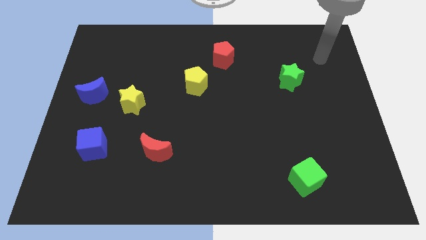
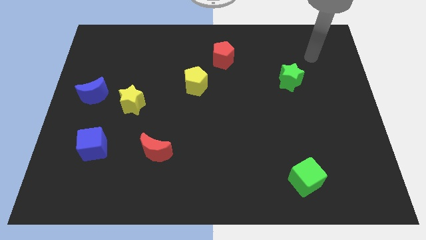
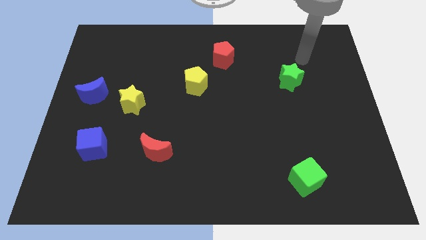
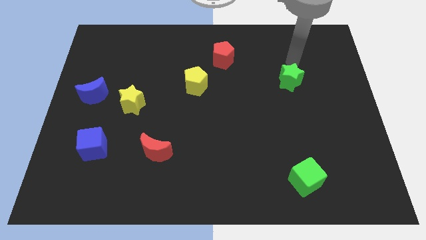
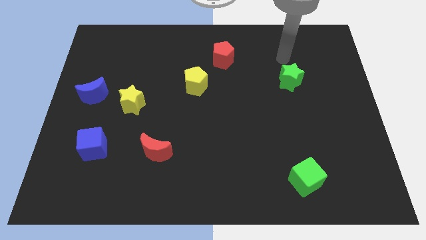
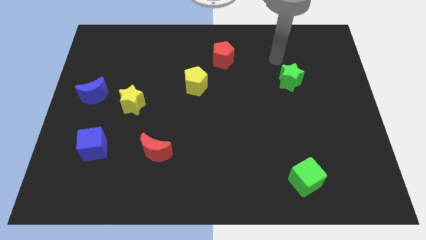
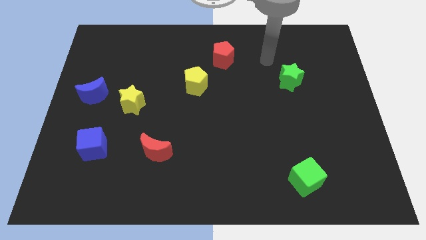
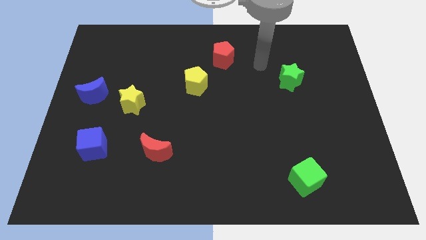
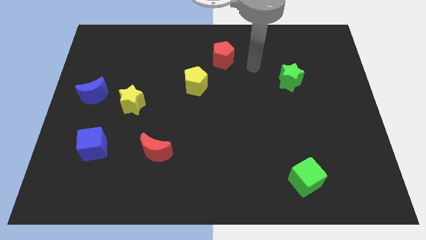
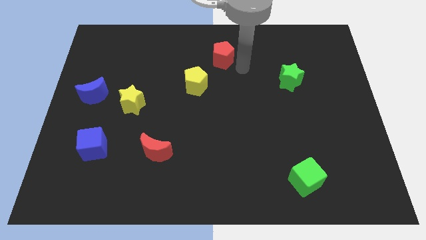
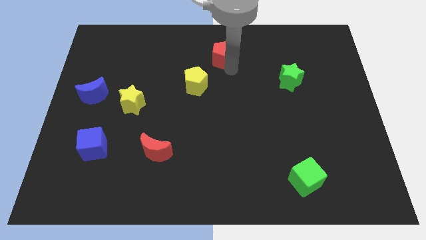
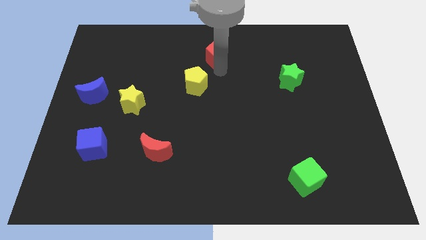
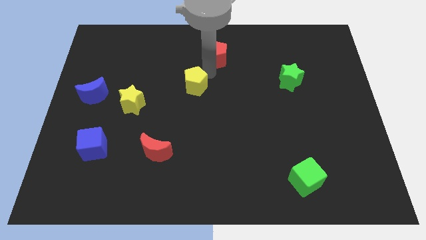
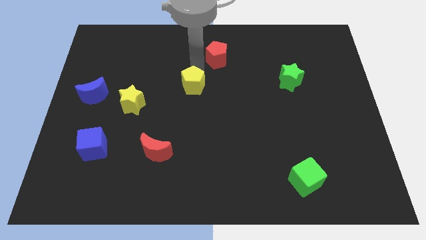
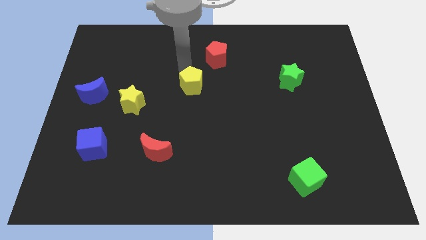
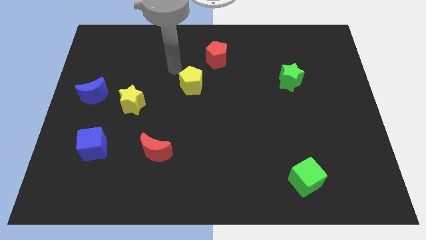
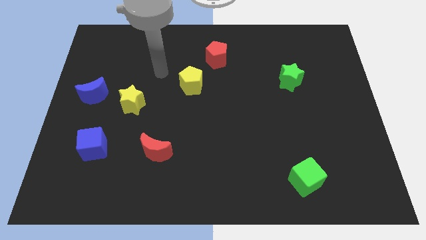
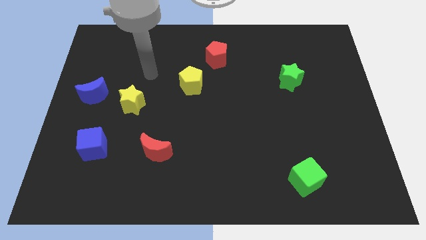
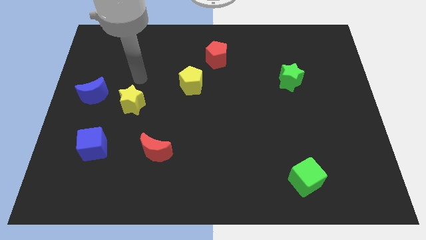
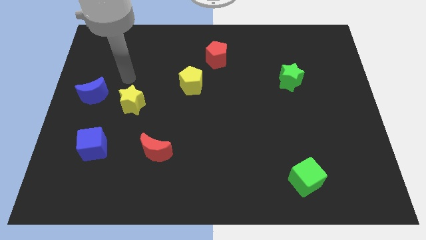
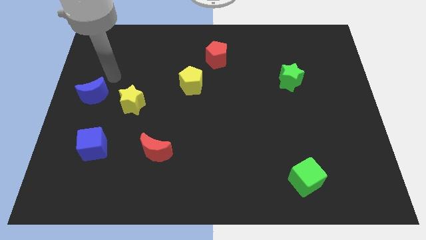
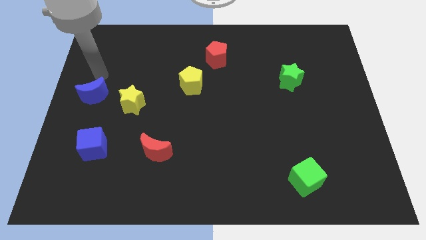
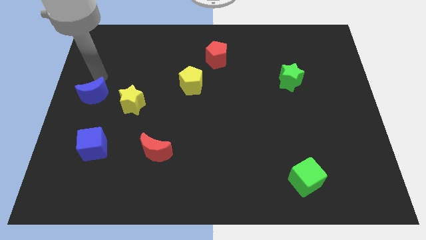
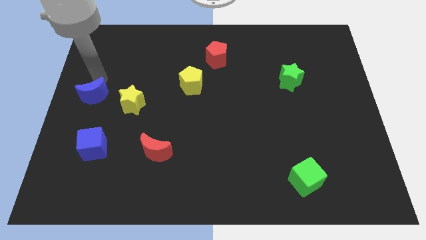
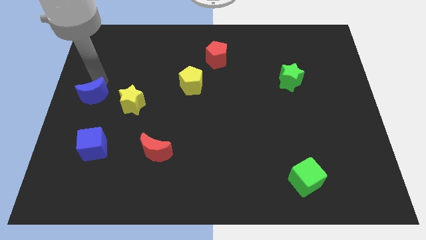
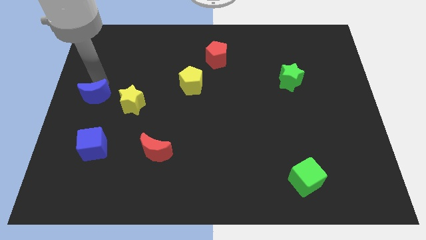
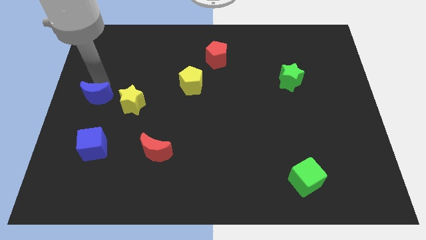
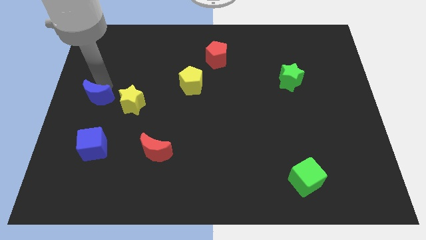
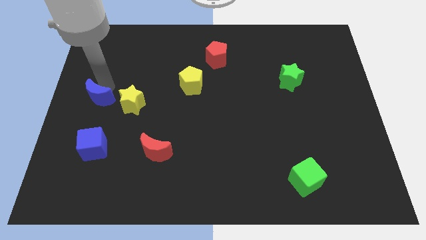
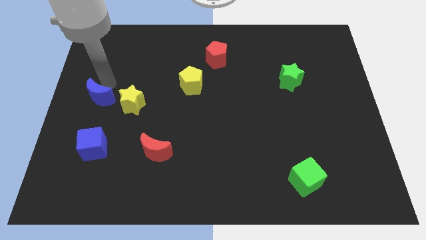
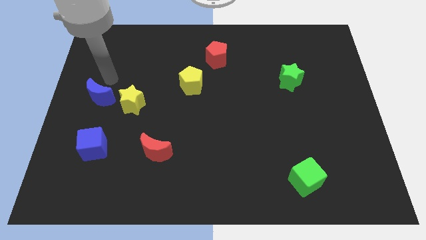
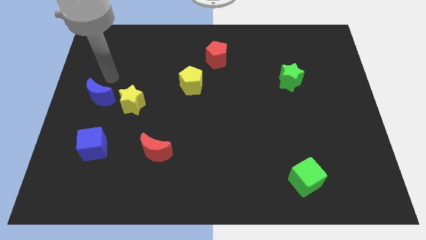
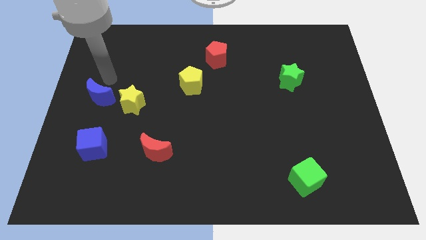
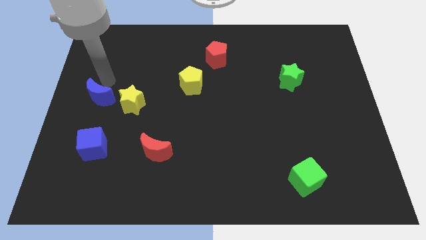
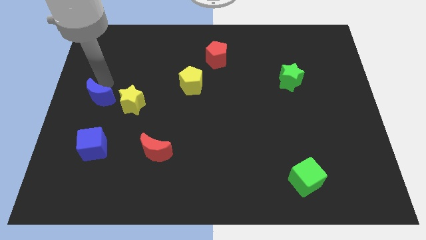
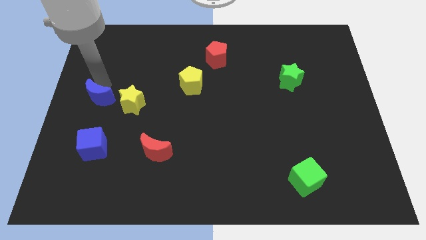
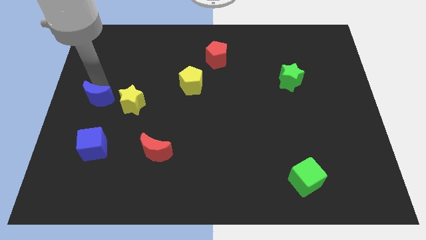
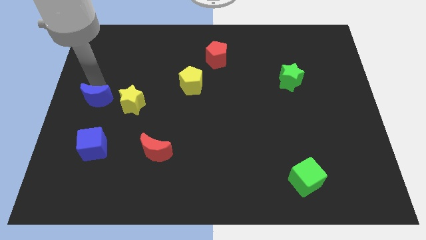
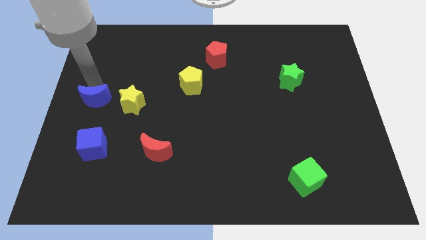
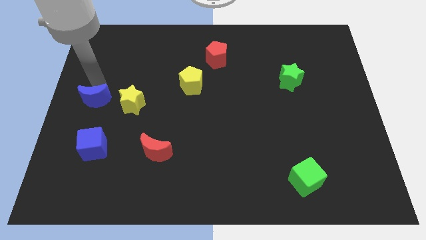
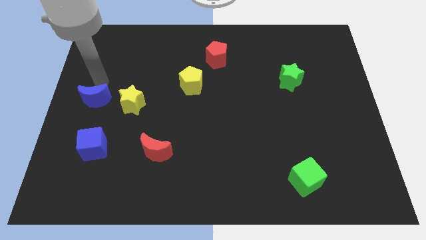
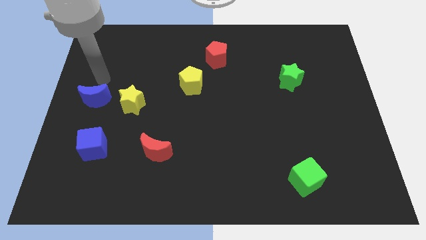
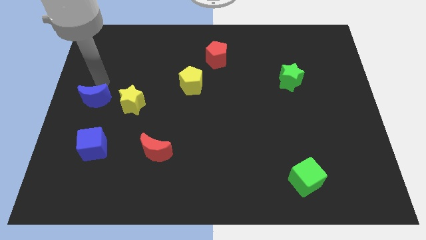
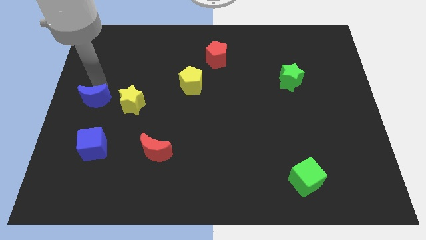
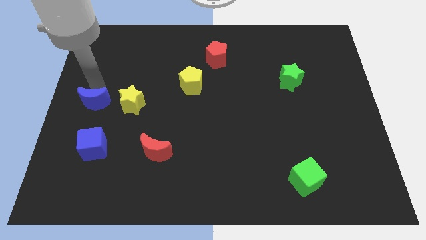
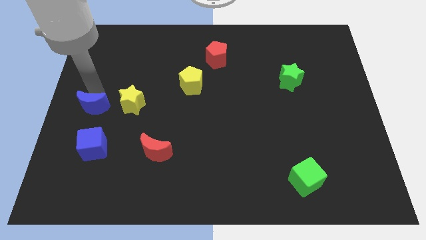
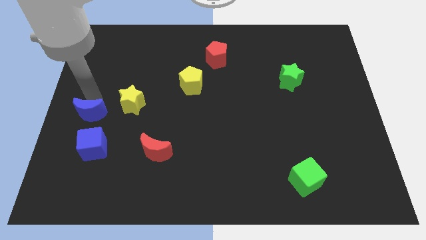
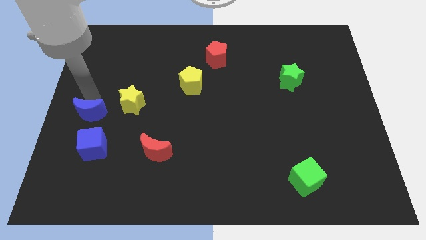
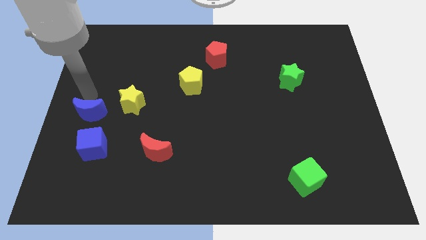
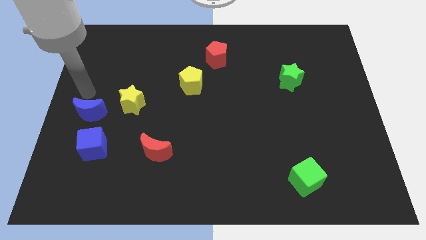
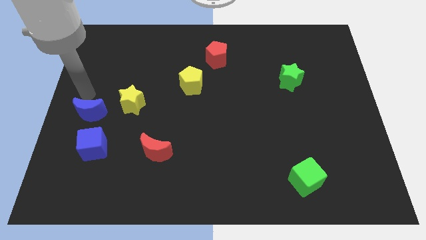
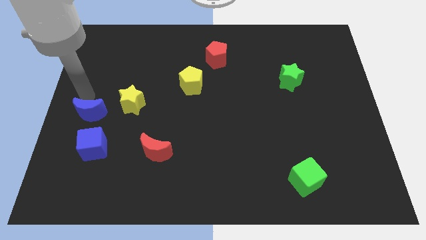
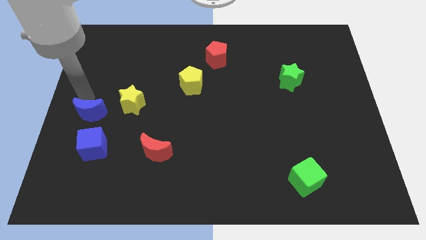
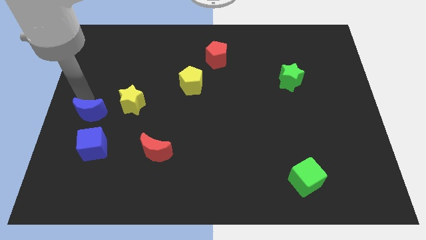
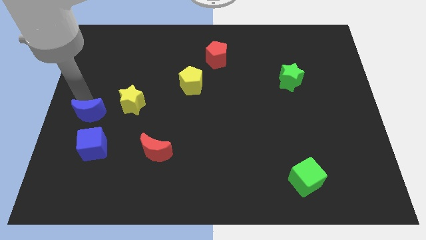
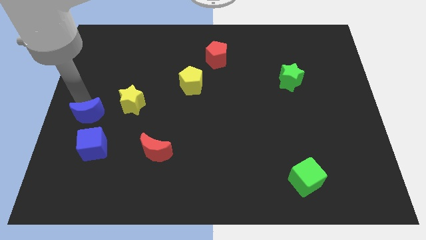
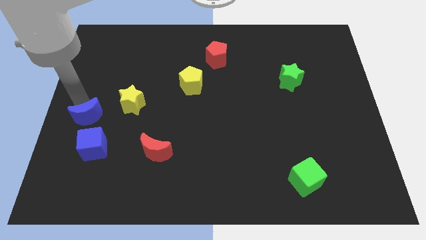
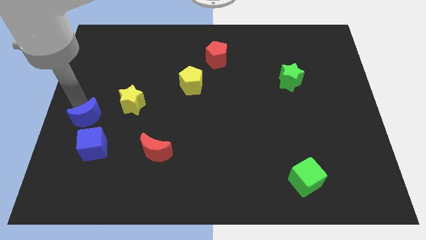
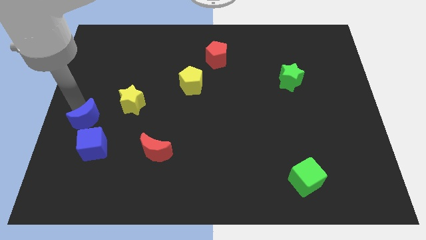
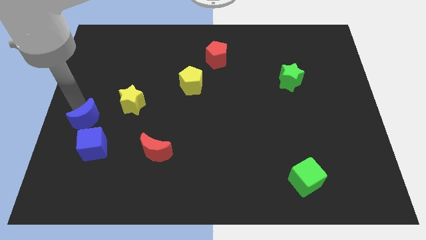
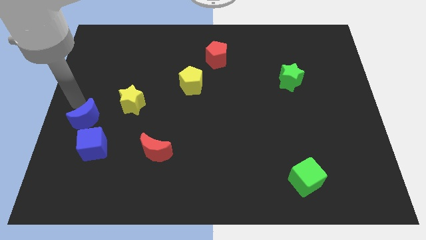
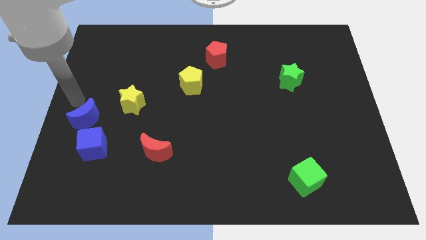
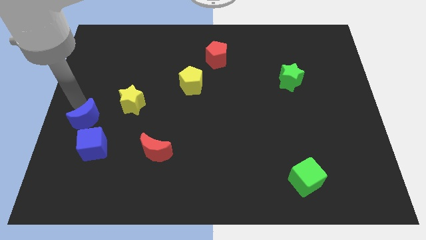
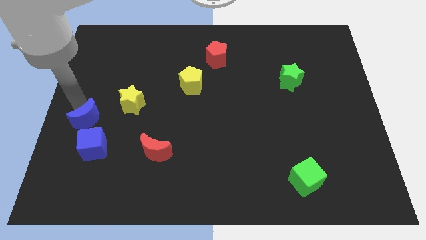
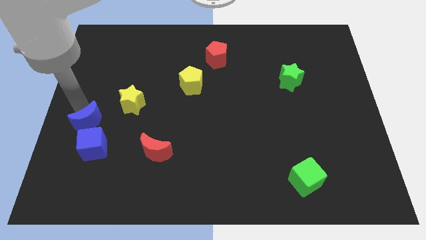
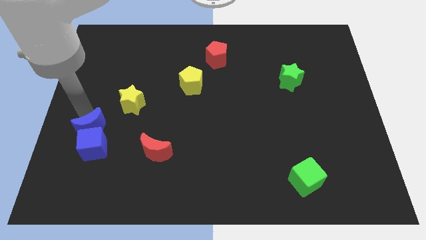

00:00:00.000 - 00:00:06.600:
move the blue moon towards the blue cube
